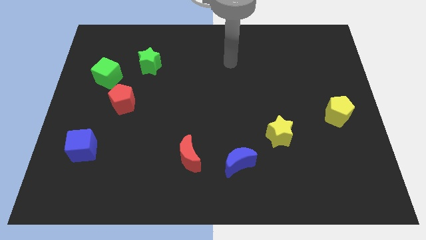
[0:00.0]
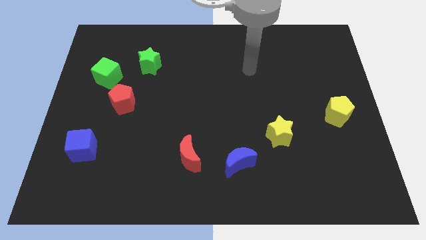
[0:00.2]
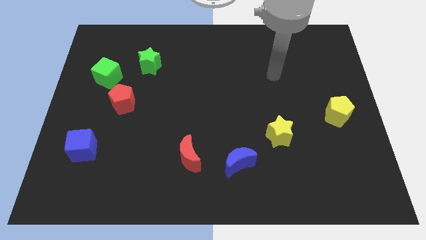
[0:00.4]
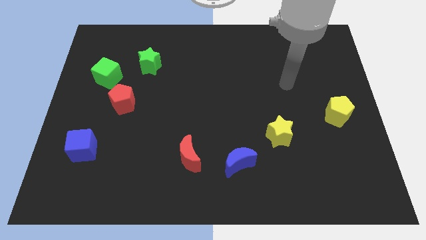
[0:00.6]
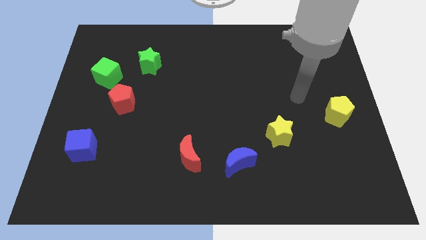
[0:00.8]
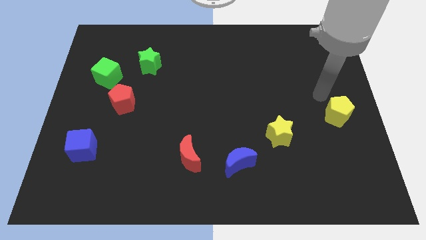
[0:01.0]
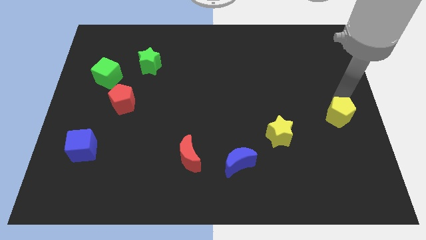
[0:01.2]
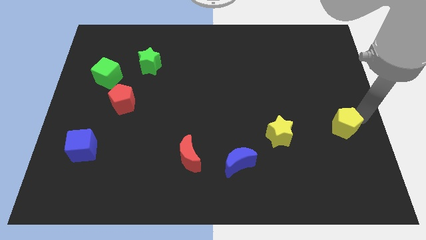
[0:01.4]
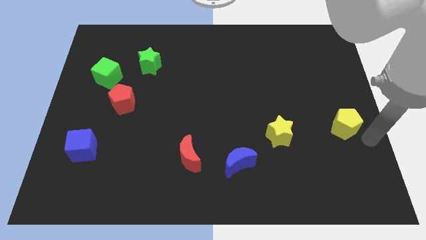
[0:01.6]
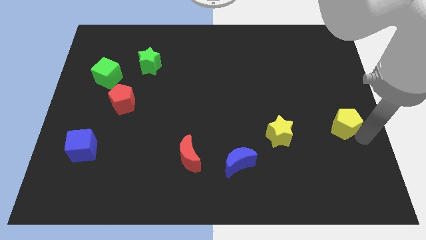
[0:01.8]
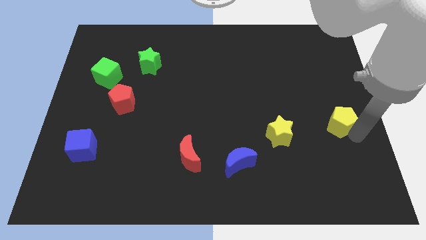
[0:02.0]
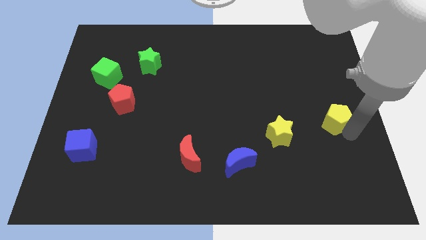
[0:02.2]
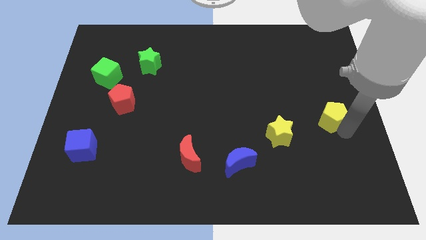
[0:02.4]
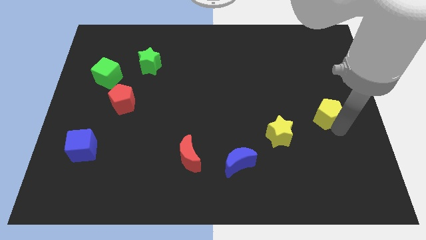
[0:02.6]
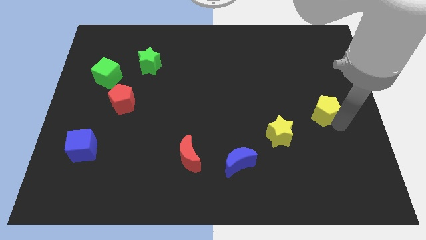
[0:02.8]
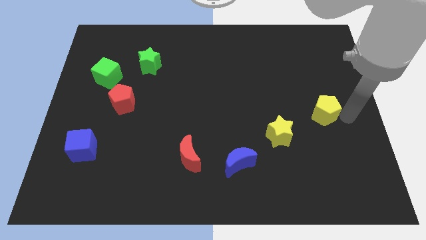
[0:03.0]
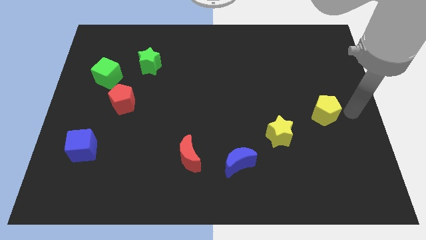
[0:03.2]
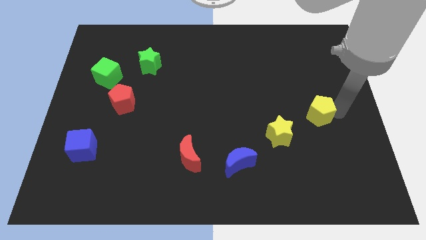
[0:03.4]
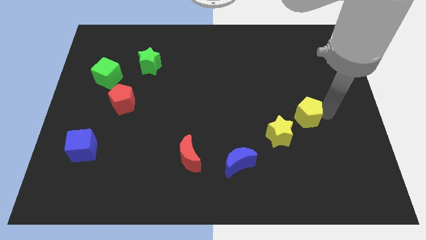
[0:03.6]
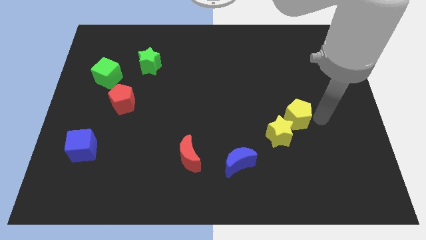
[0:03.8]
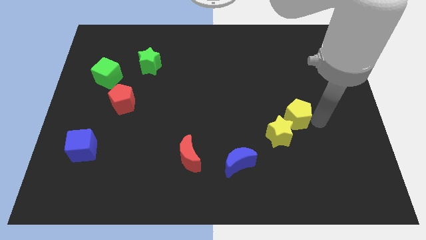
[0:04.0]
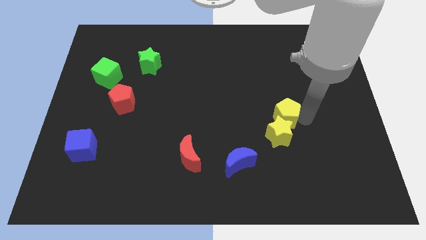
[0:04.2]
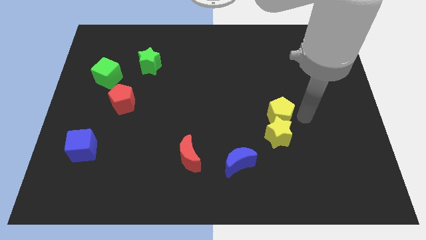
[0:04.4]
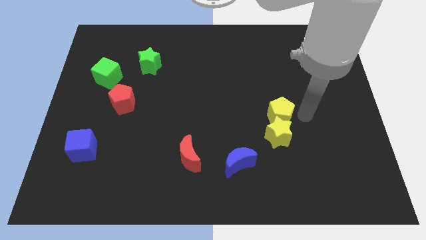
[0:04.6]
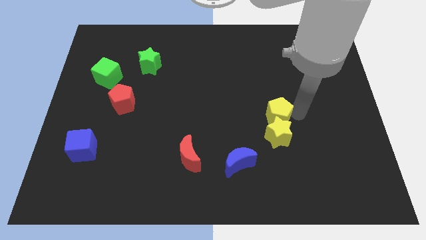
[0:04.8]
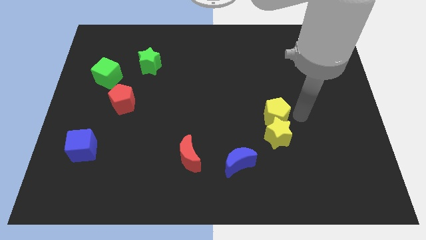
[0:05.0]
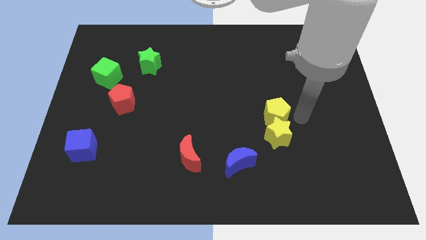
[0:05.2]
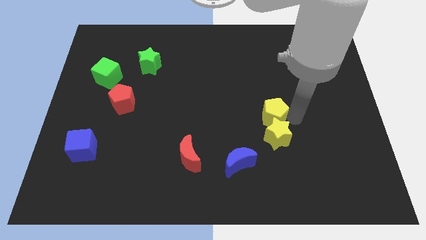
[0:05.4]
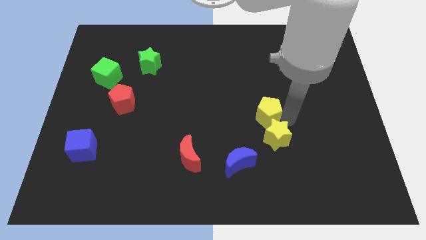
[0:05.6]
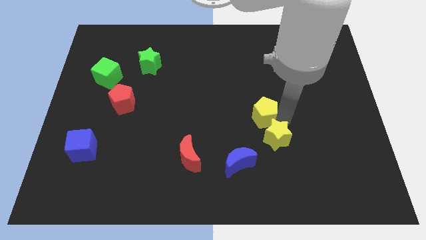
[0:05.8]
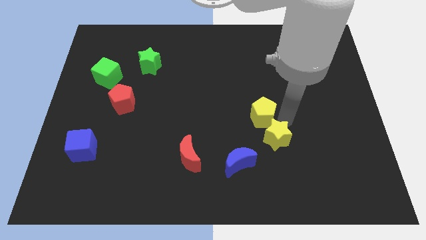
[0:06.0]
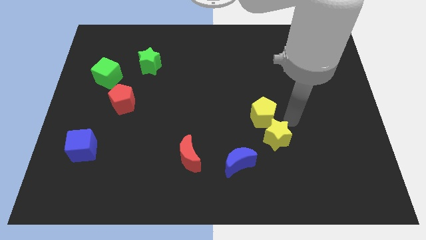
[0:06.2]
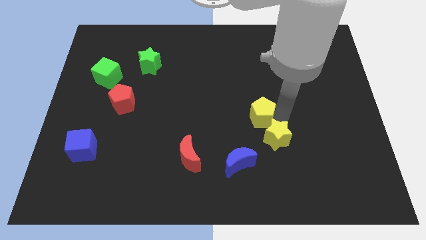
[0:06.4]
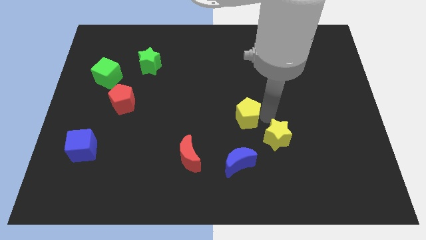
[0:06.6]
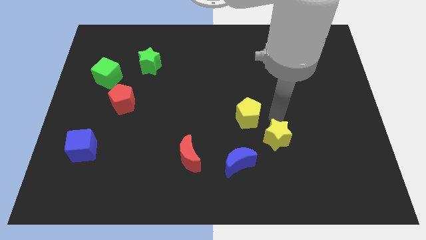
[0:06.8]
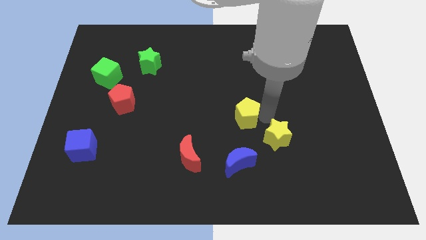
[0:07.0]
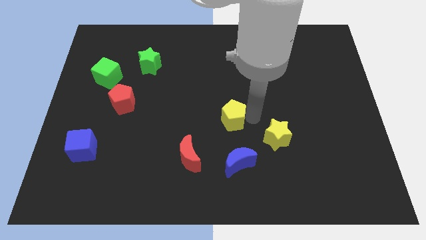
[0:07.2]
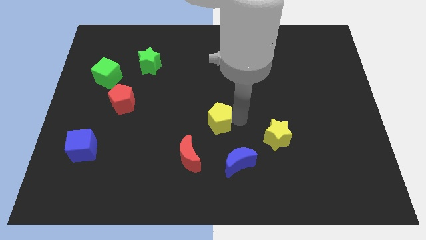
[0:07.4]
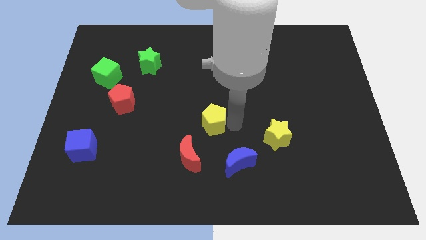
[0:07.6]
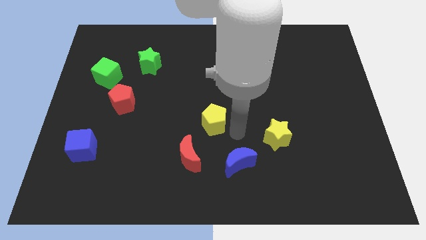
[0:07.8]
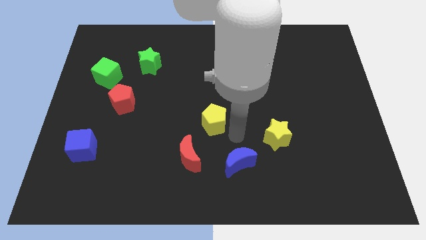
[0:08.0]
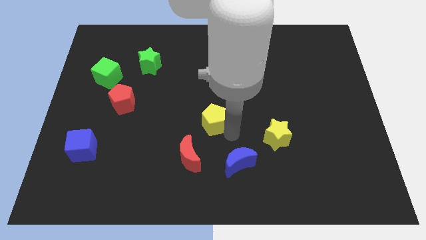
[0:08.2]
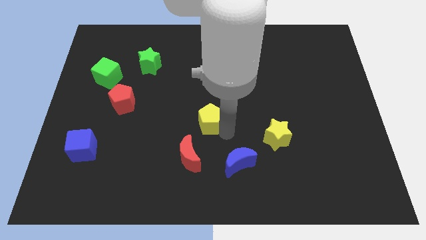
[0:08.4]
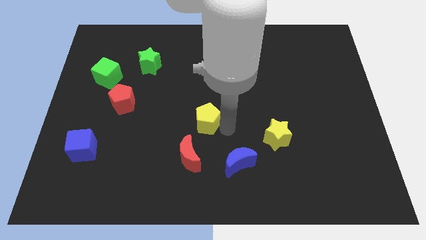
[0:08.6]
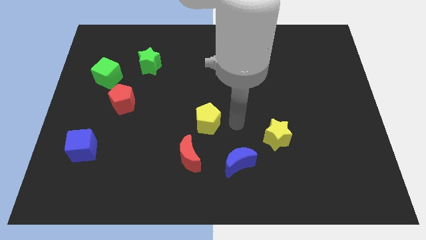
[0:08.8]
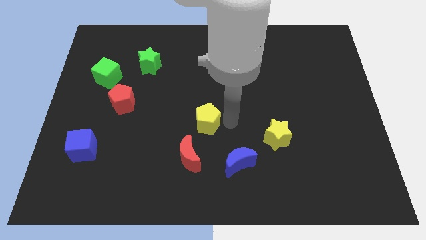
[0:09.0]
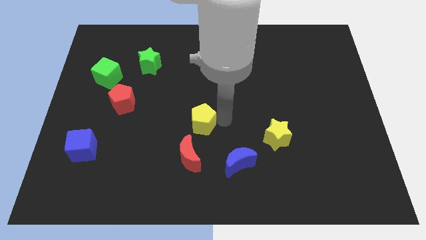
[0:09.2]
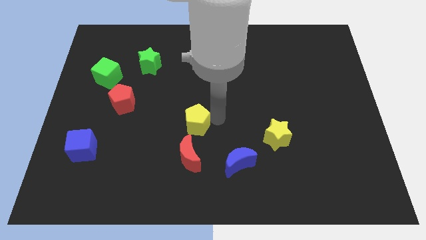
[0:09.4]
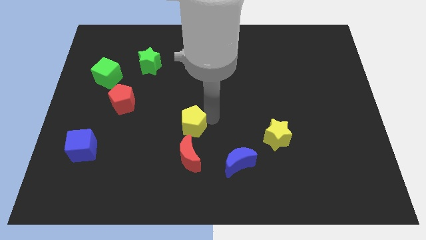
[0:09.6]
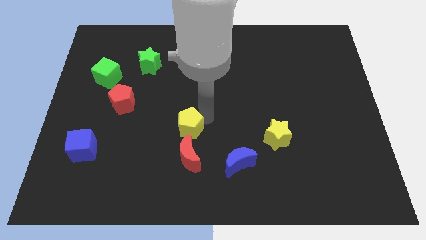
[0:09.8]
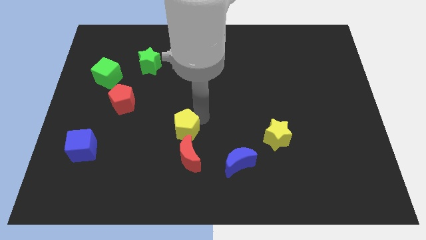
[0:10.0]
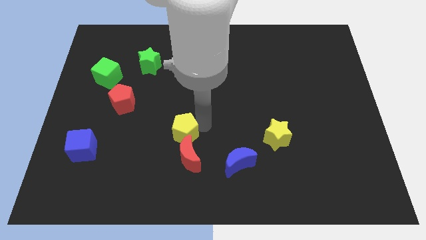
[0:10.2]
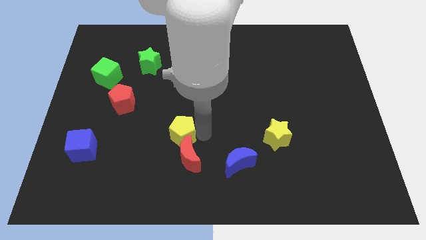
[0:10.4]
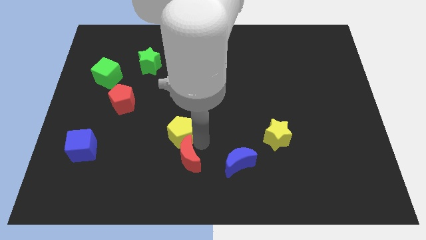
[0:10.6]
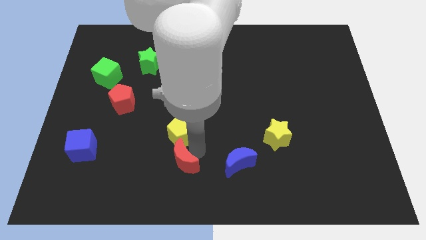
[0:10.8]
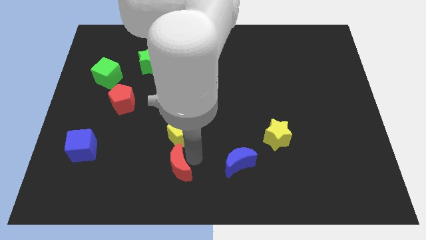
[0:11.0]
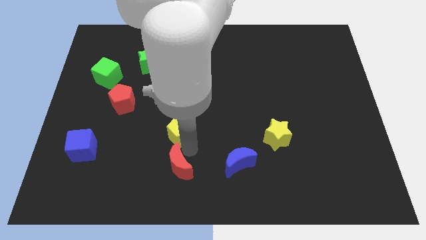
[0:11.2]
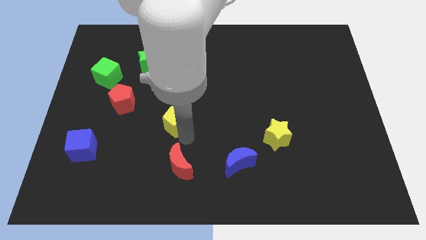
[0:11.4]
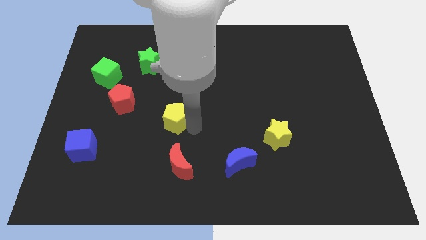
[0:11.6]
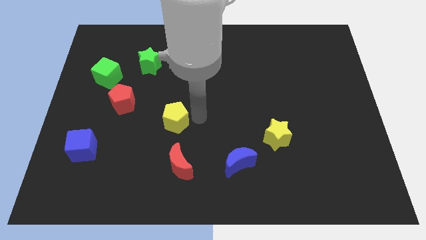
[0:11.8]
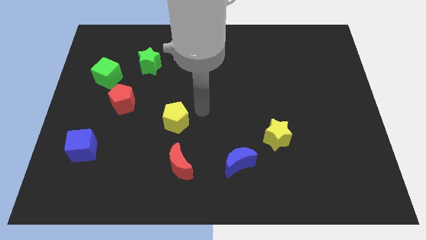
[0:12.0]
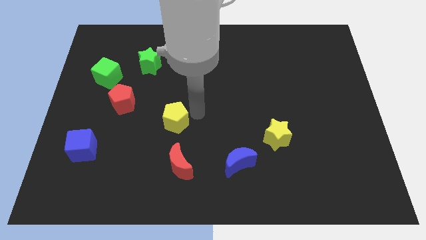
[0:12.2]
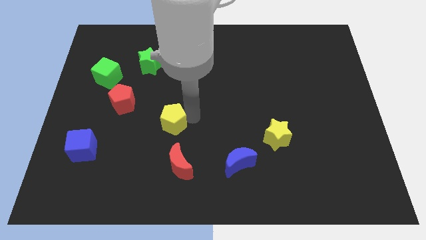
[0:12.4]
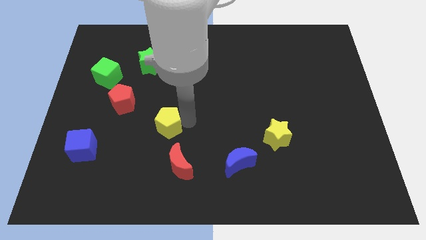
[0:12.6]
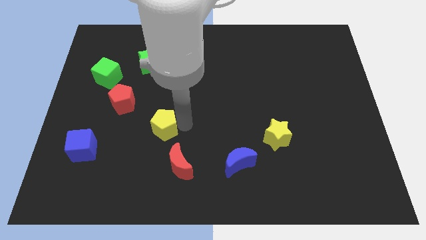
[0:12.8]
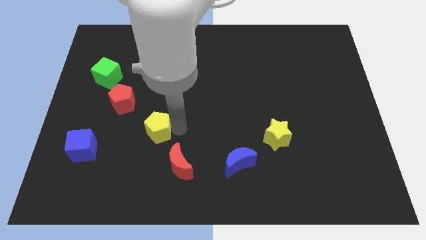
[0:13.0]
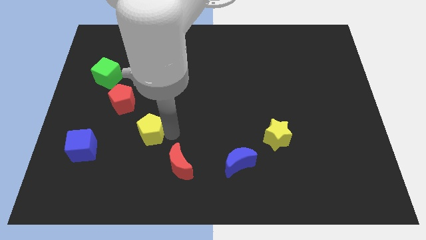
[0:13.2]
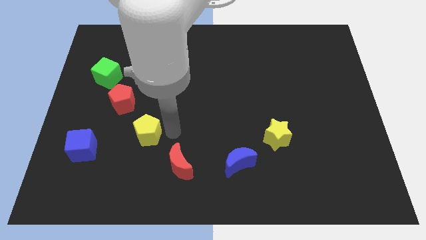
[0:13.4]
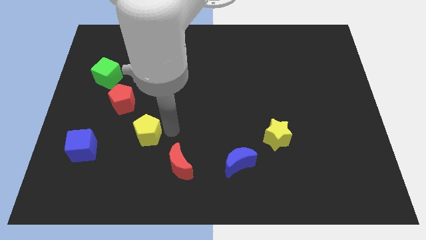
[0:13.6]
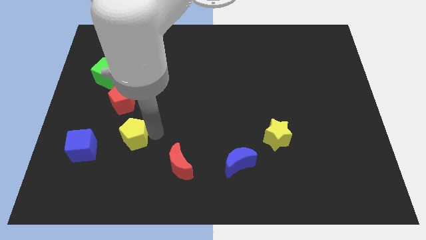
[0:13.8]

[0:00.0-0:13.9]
push the yellow pentagon below the red pentagon
